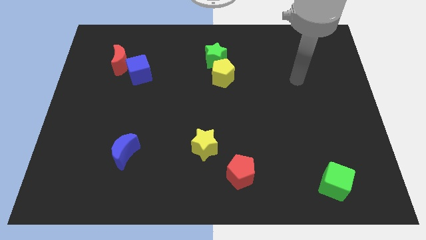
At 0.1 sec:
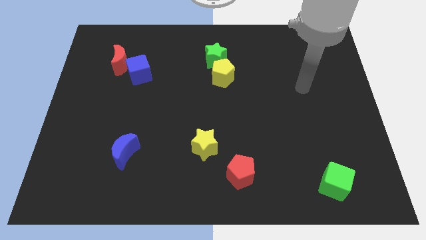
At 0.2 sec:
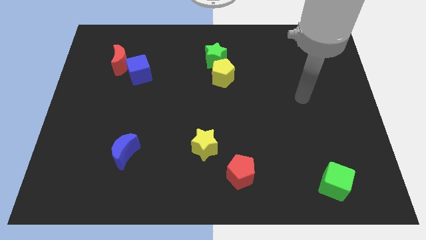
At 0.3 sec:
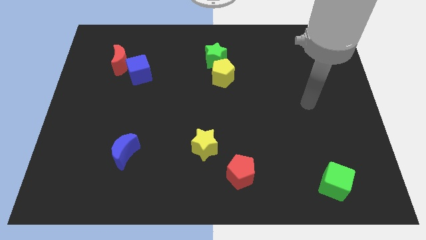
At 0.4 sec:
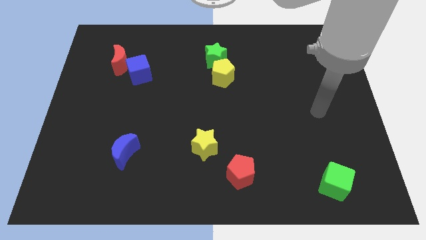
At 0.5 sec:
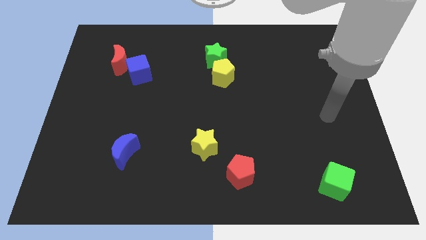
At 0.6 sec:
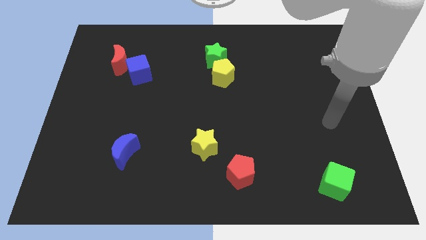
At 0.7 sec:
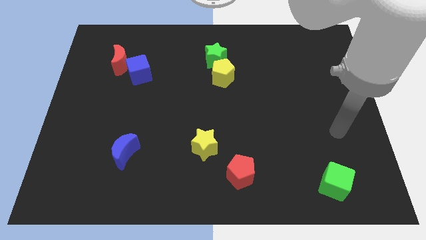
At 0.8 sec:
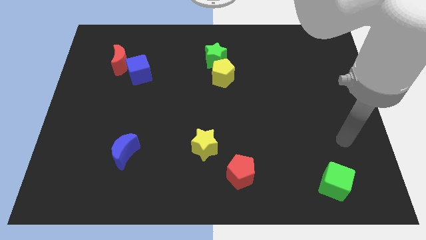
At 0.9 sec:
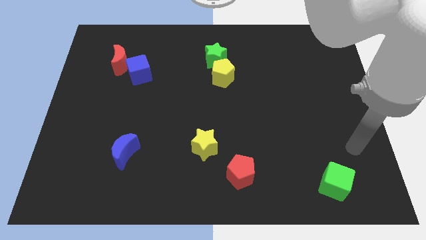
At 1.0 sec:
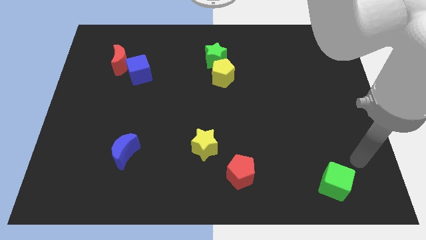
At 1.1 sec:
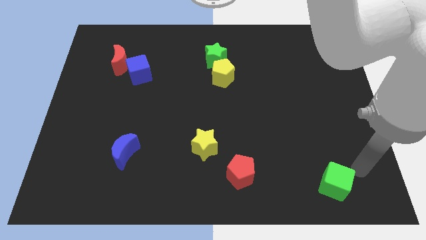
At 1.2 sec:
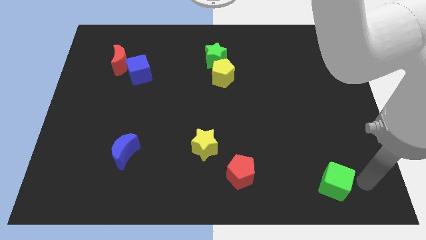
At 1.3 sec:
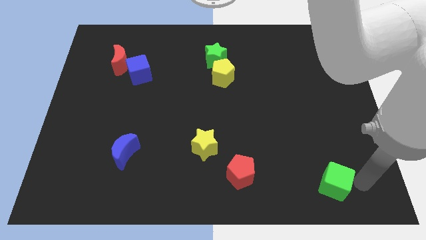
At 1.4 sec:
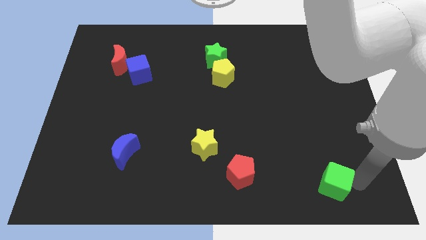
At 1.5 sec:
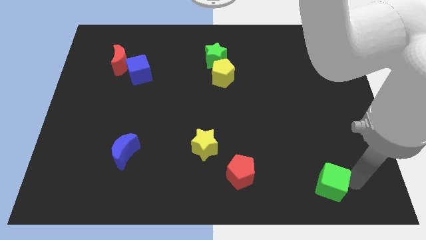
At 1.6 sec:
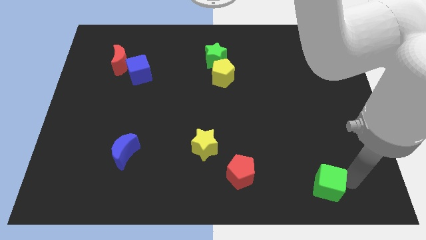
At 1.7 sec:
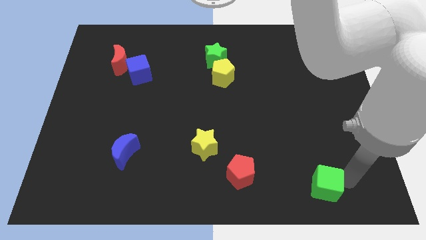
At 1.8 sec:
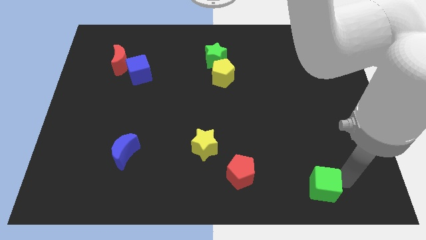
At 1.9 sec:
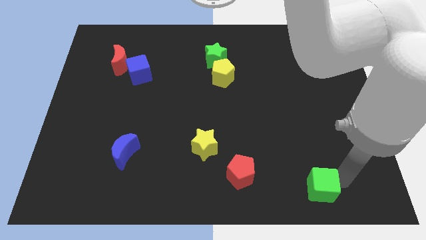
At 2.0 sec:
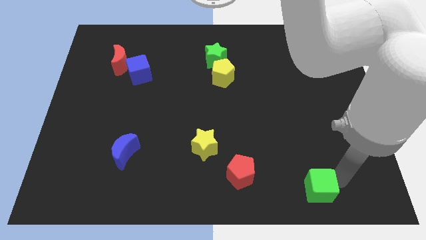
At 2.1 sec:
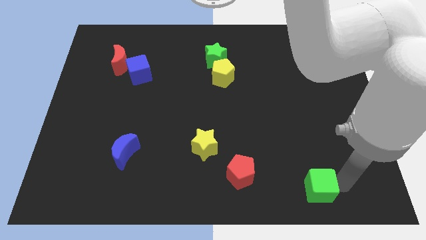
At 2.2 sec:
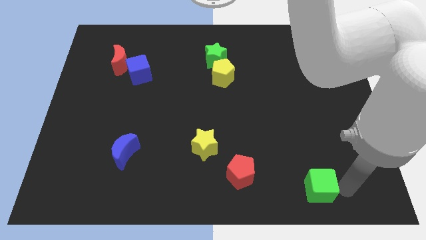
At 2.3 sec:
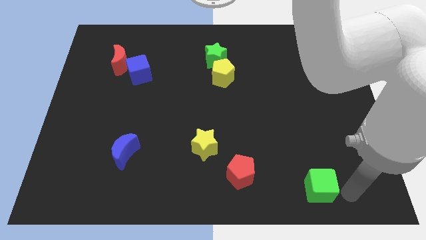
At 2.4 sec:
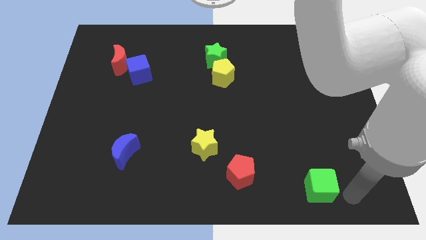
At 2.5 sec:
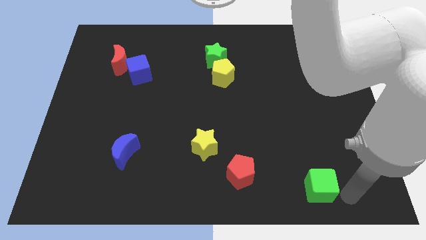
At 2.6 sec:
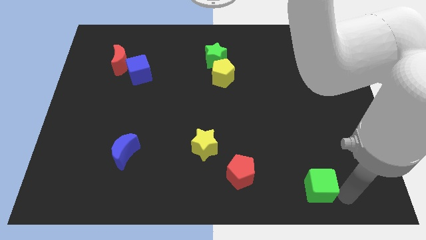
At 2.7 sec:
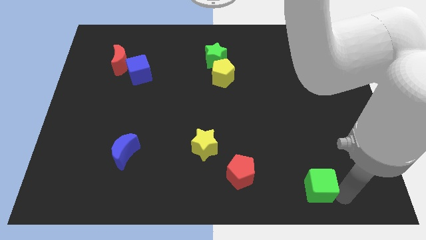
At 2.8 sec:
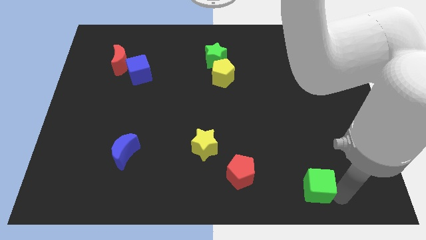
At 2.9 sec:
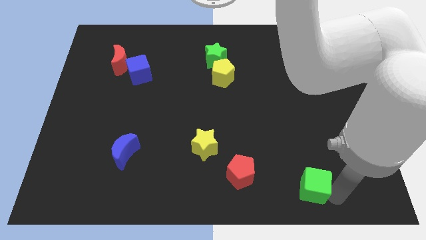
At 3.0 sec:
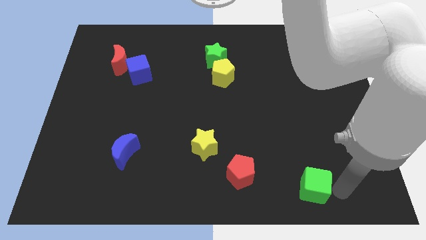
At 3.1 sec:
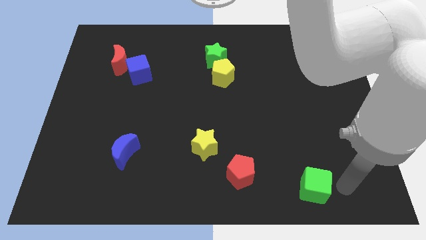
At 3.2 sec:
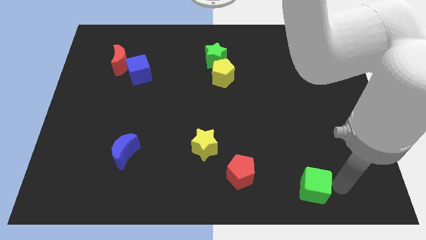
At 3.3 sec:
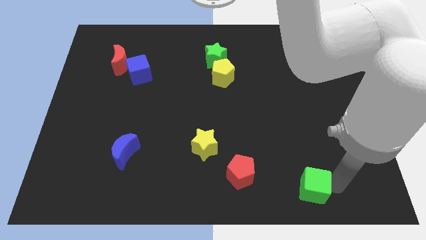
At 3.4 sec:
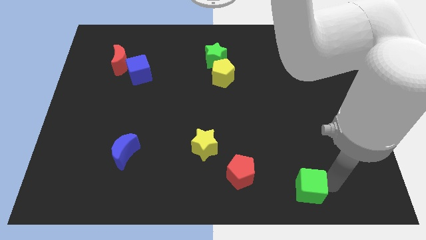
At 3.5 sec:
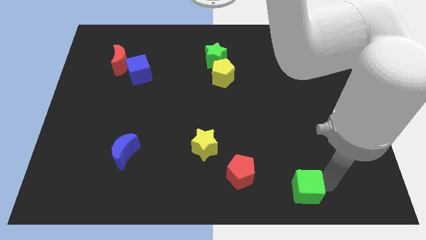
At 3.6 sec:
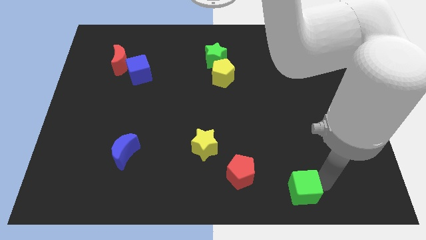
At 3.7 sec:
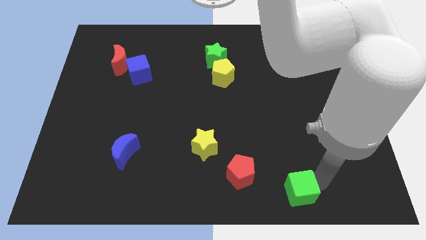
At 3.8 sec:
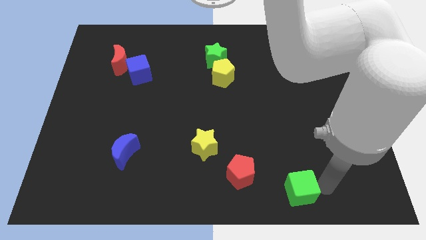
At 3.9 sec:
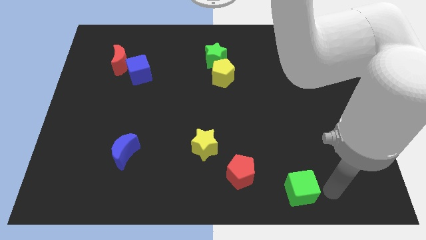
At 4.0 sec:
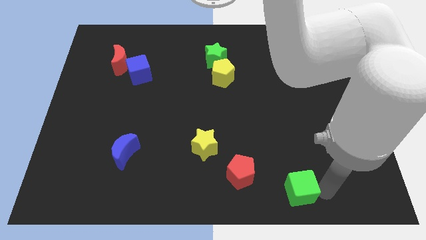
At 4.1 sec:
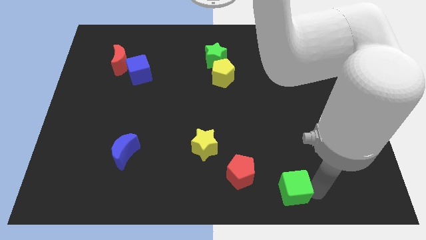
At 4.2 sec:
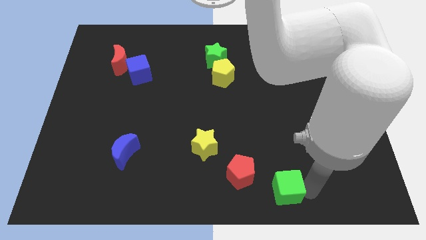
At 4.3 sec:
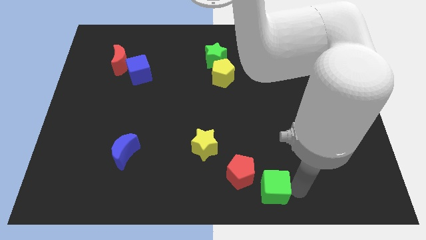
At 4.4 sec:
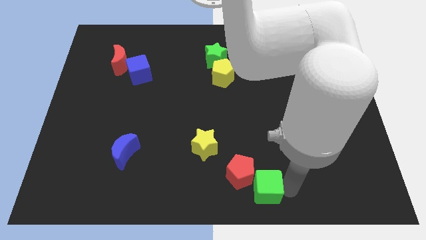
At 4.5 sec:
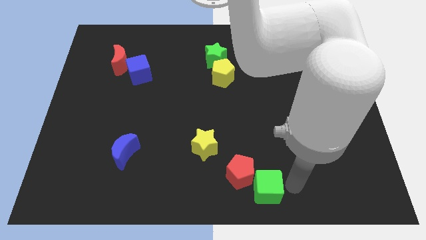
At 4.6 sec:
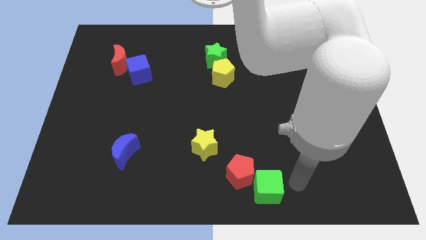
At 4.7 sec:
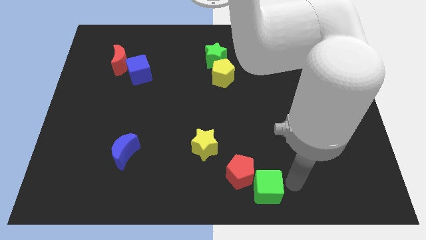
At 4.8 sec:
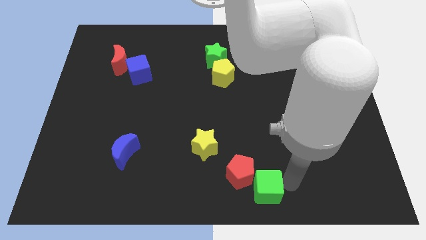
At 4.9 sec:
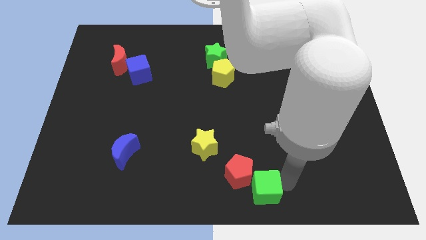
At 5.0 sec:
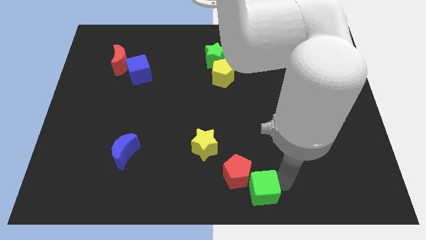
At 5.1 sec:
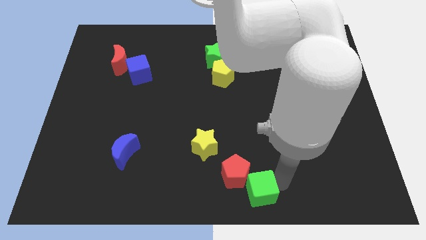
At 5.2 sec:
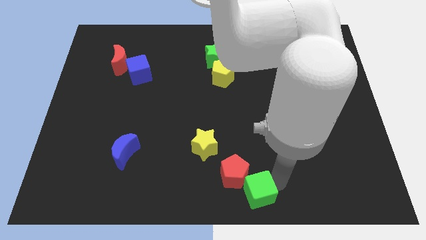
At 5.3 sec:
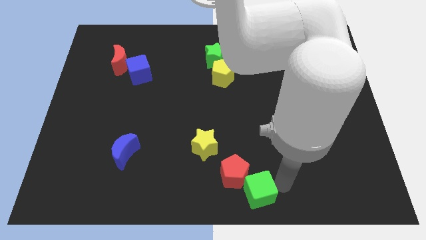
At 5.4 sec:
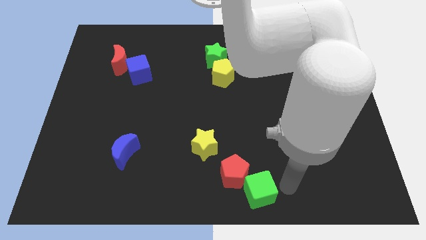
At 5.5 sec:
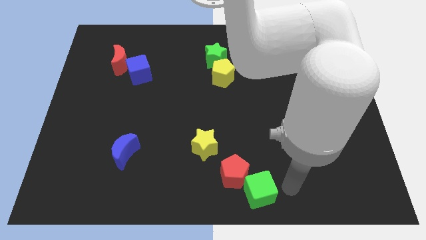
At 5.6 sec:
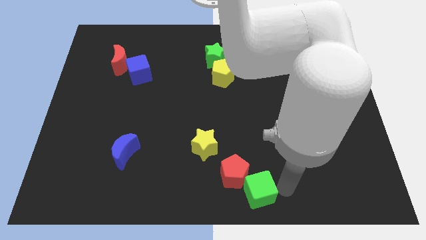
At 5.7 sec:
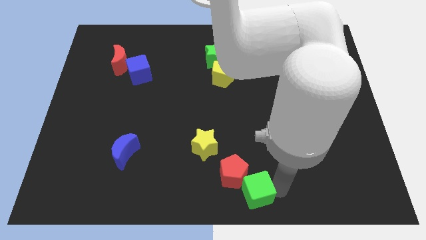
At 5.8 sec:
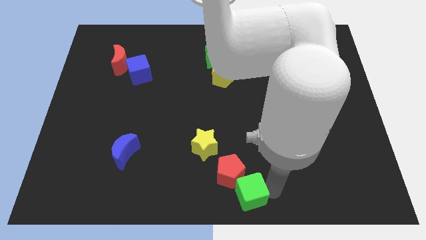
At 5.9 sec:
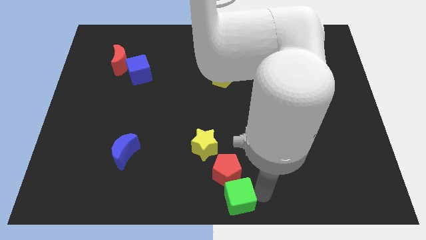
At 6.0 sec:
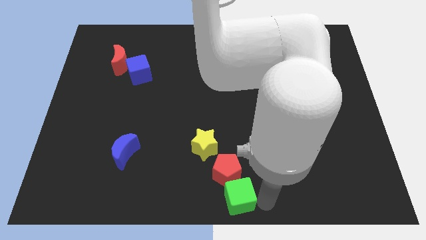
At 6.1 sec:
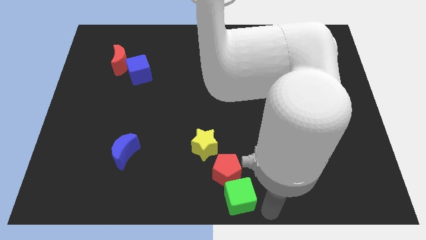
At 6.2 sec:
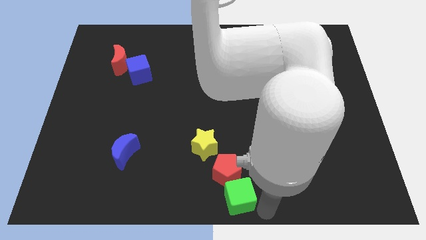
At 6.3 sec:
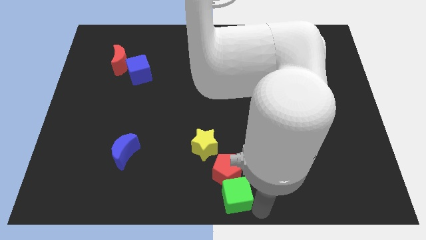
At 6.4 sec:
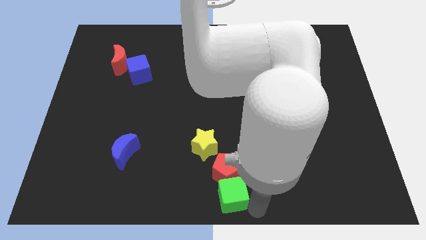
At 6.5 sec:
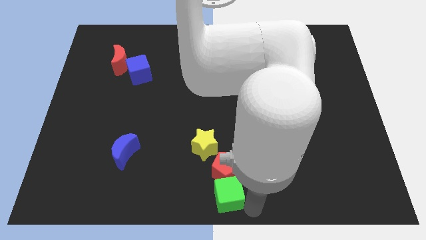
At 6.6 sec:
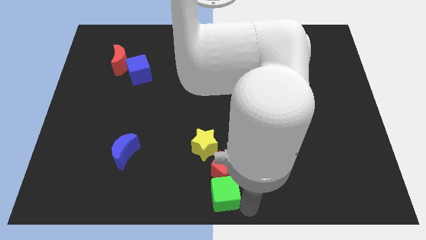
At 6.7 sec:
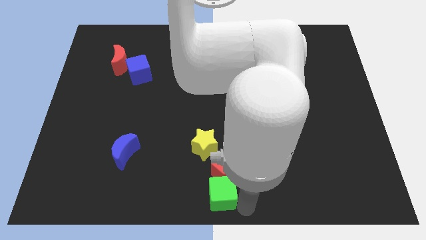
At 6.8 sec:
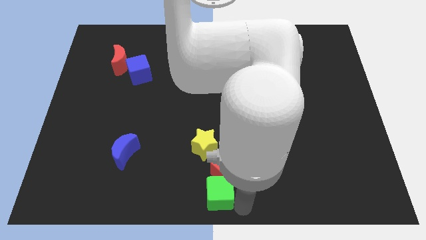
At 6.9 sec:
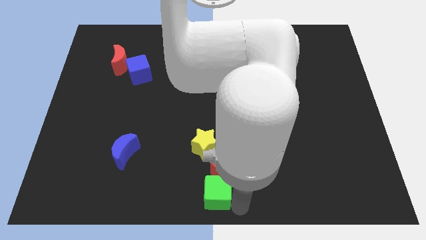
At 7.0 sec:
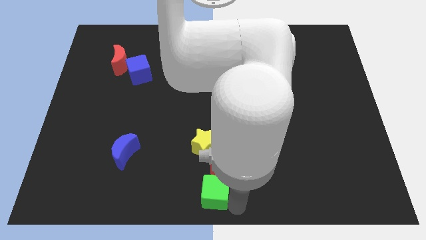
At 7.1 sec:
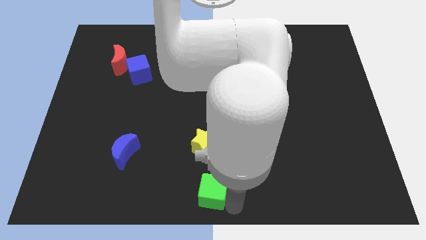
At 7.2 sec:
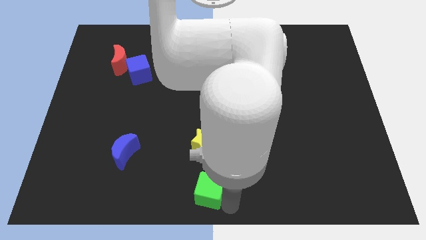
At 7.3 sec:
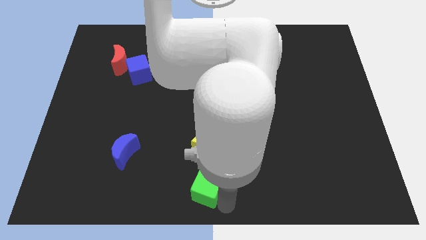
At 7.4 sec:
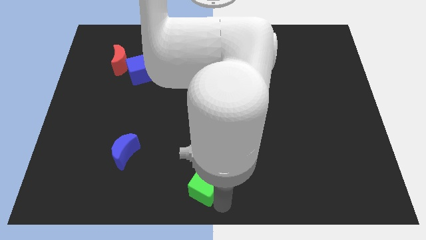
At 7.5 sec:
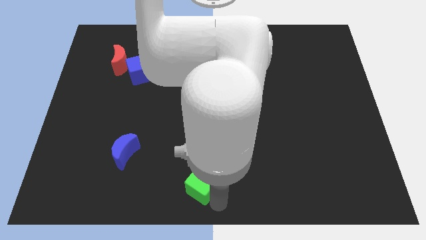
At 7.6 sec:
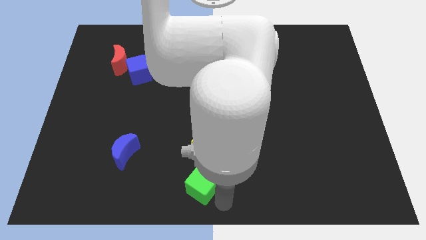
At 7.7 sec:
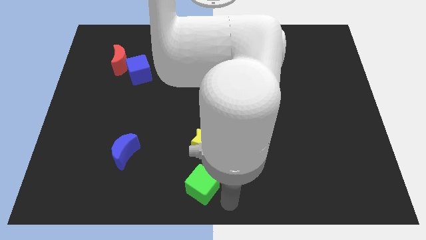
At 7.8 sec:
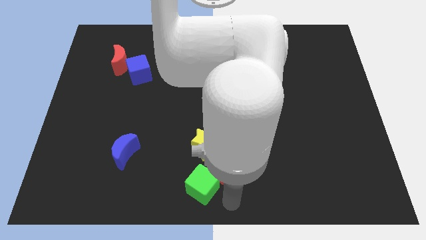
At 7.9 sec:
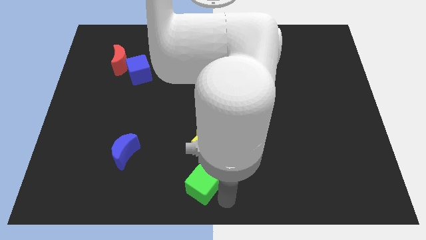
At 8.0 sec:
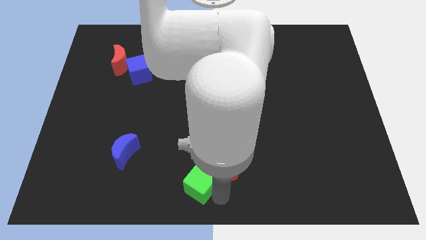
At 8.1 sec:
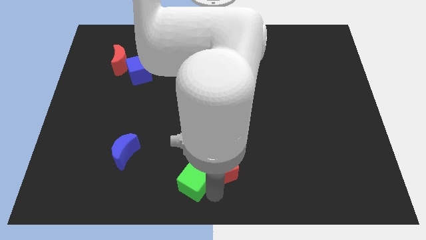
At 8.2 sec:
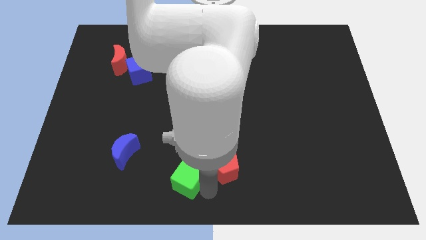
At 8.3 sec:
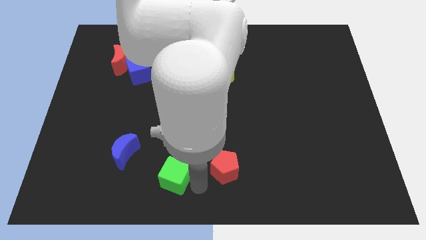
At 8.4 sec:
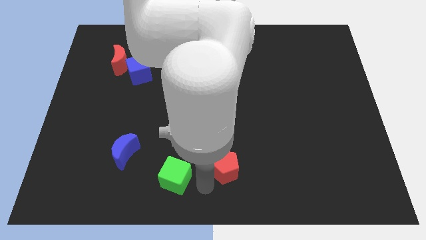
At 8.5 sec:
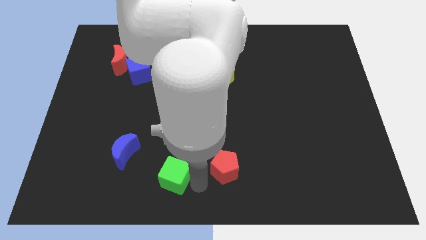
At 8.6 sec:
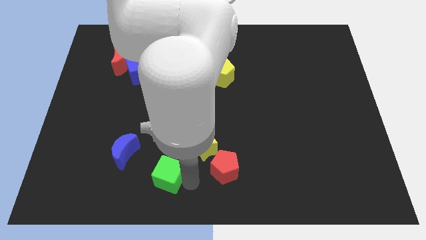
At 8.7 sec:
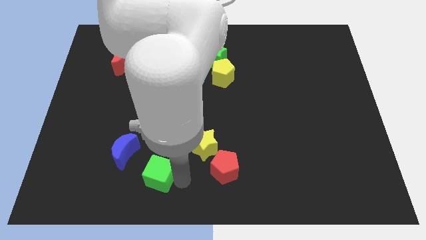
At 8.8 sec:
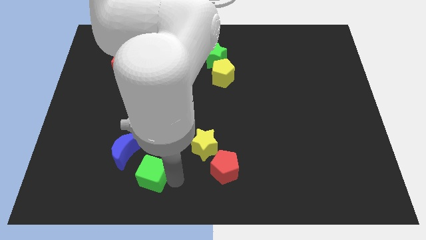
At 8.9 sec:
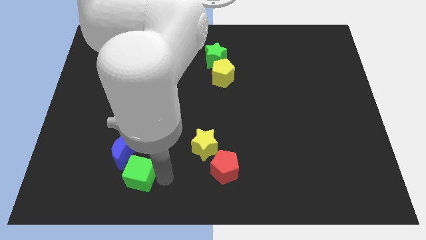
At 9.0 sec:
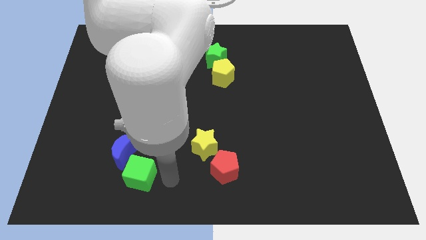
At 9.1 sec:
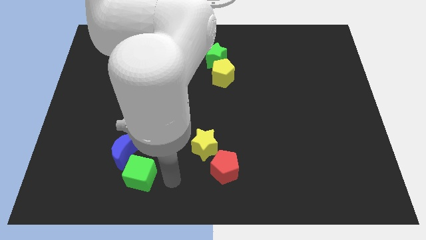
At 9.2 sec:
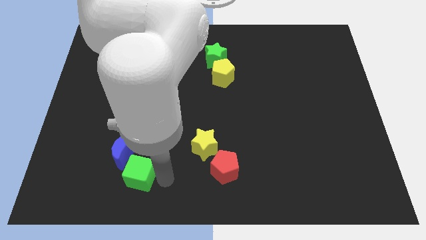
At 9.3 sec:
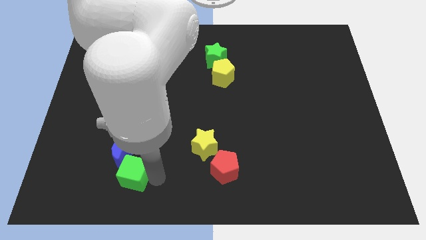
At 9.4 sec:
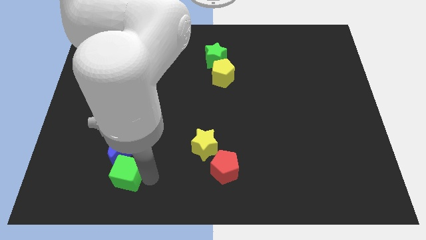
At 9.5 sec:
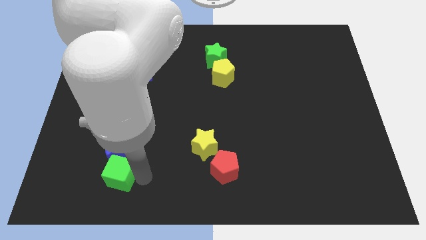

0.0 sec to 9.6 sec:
push the green cube to the bottom left side of the blue moon
